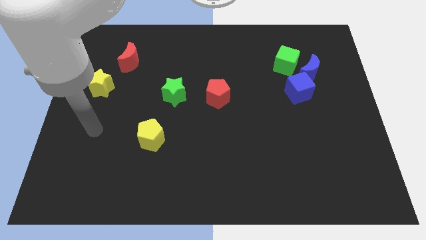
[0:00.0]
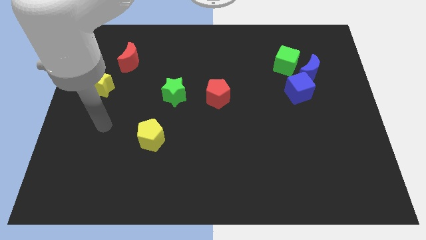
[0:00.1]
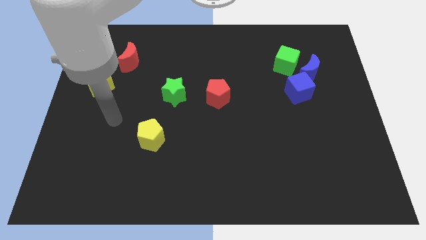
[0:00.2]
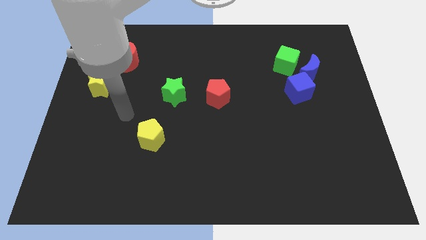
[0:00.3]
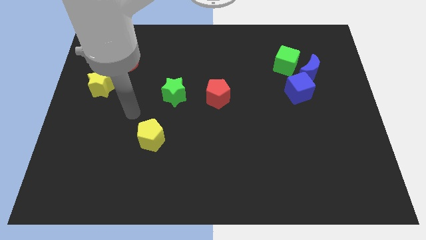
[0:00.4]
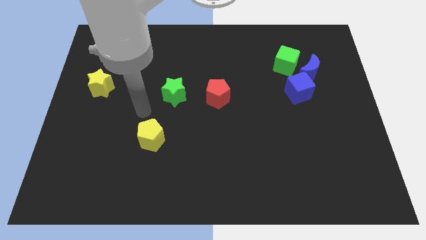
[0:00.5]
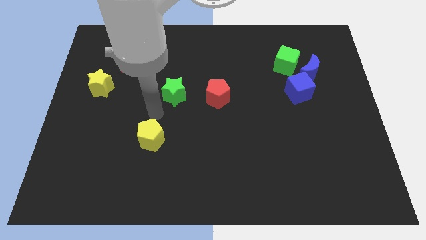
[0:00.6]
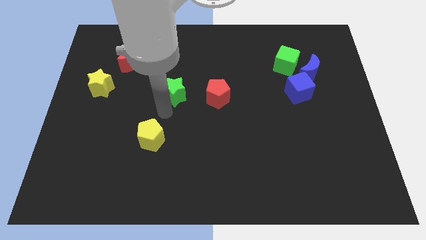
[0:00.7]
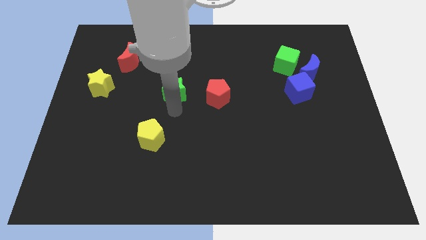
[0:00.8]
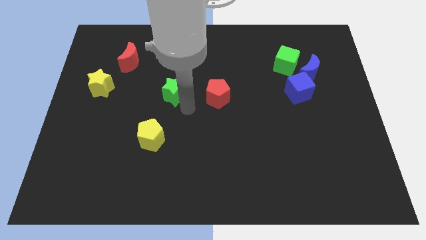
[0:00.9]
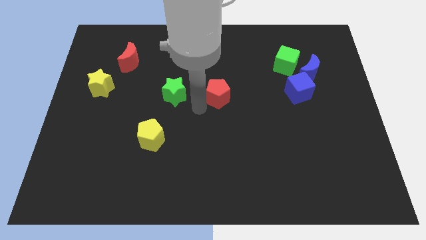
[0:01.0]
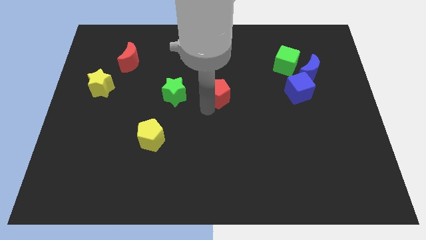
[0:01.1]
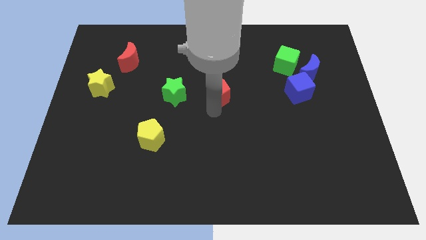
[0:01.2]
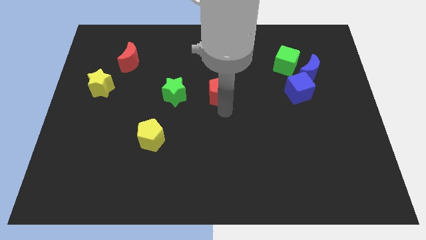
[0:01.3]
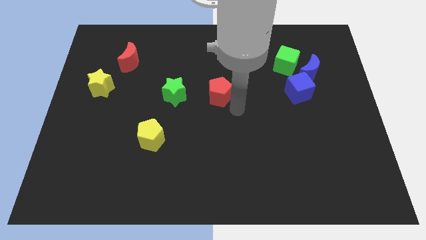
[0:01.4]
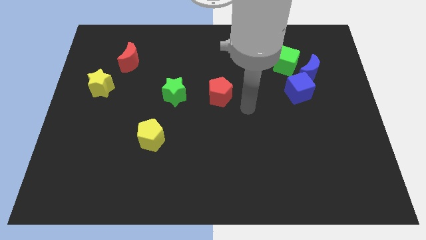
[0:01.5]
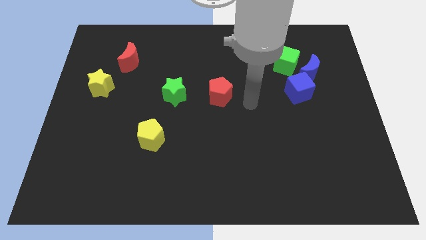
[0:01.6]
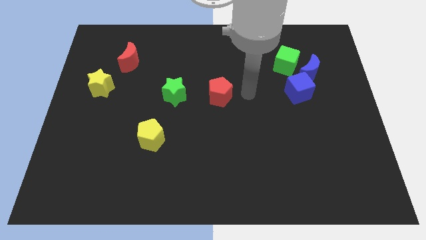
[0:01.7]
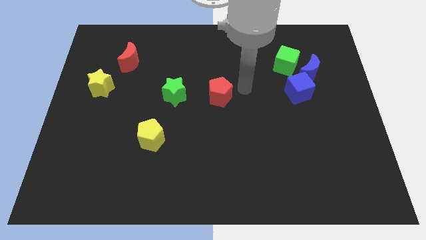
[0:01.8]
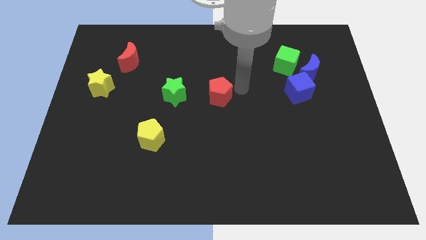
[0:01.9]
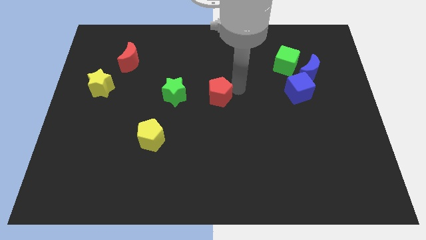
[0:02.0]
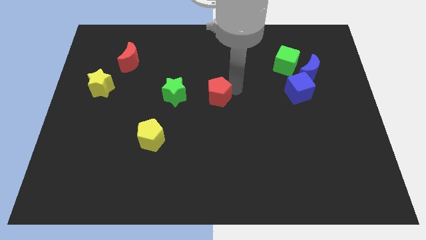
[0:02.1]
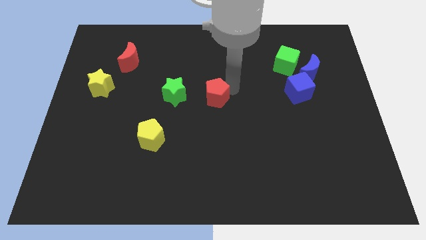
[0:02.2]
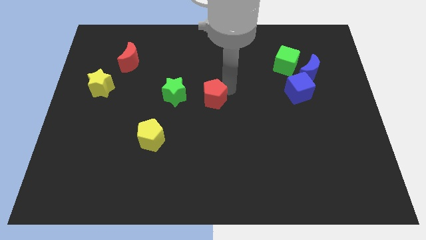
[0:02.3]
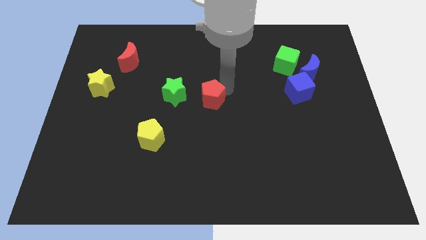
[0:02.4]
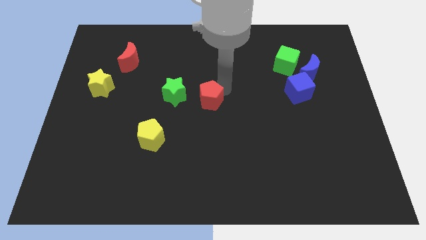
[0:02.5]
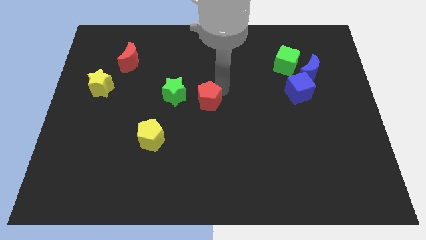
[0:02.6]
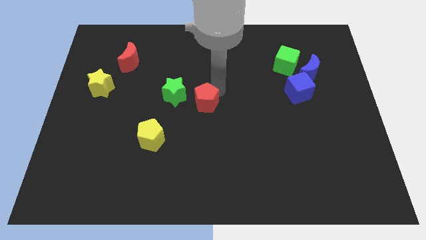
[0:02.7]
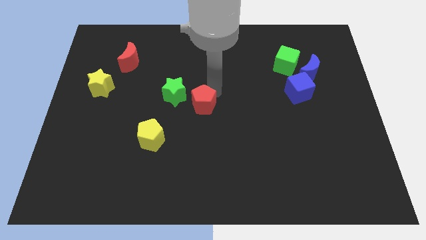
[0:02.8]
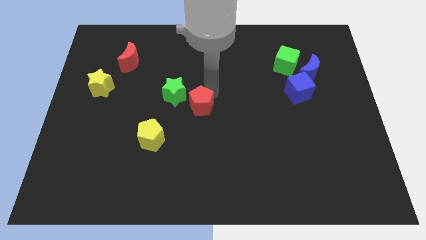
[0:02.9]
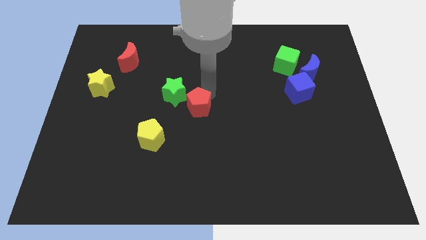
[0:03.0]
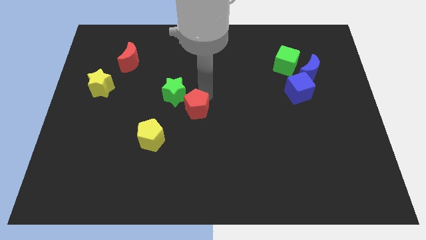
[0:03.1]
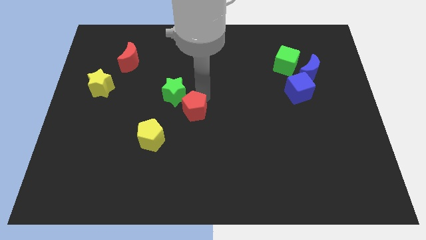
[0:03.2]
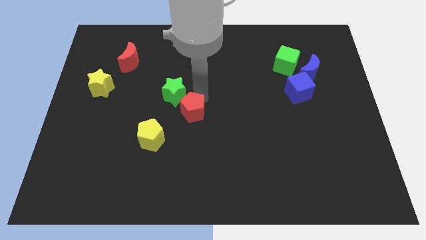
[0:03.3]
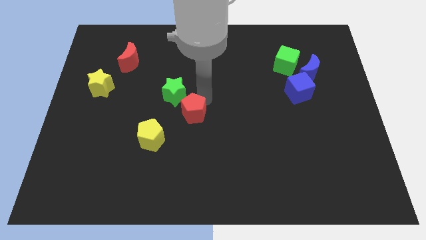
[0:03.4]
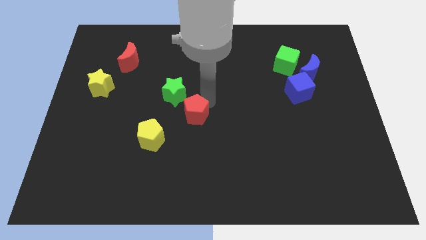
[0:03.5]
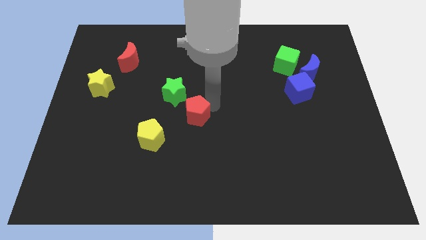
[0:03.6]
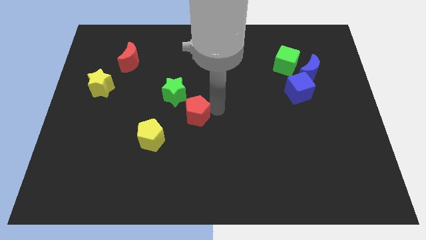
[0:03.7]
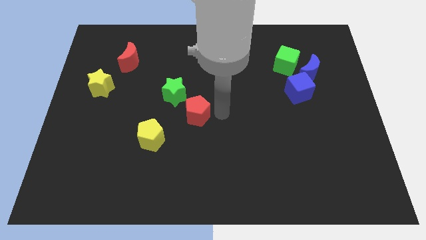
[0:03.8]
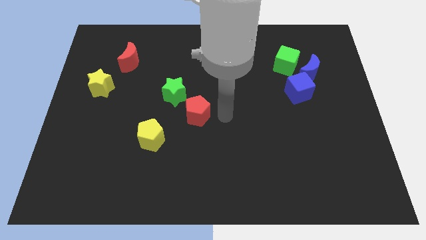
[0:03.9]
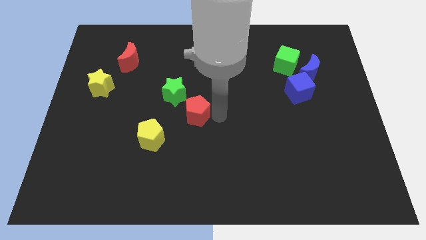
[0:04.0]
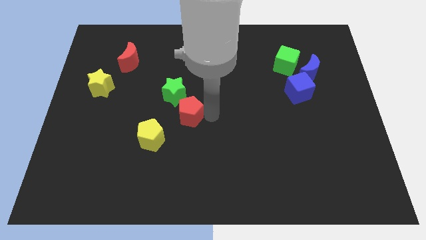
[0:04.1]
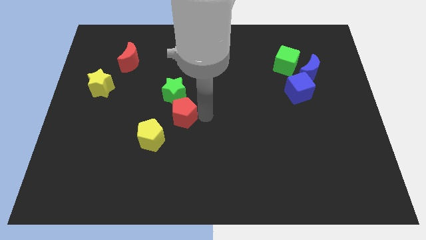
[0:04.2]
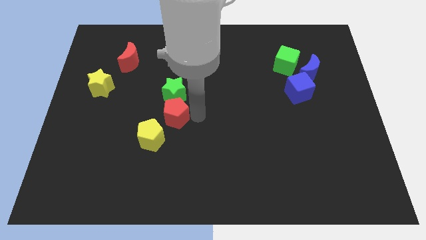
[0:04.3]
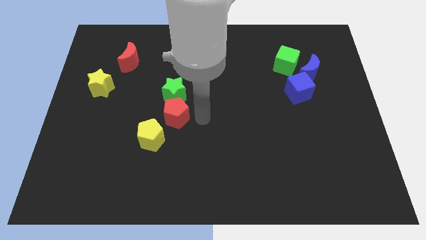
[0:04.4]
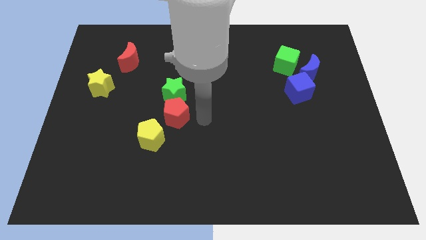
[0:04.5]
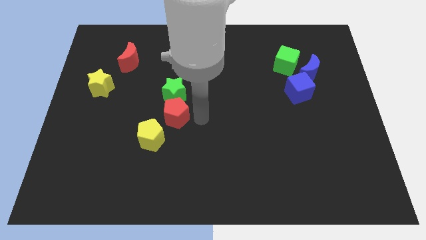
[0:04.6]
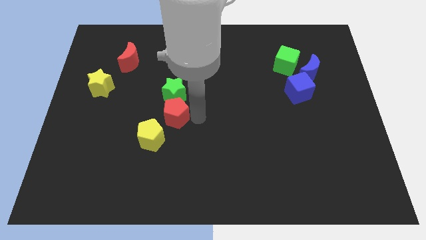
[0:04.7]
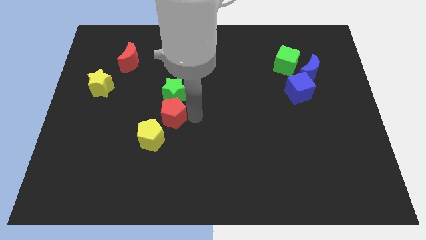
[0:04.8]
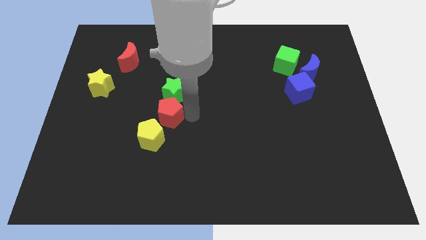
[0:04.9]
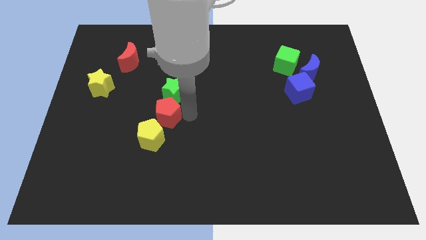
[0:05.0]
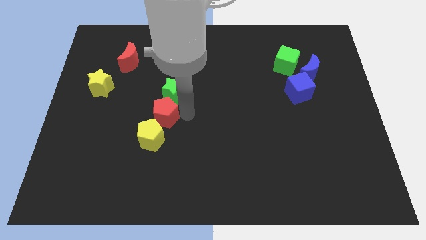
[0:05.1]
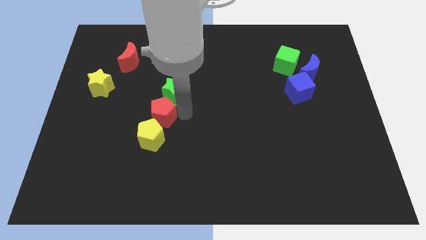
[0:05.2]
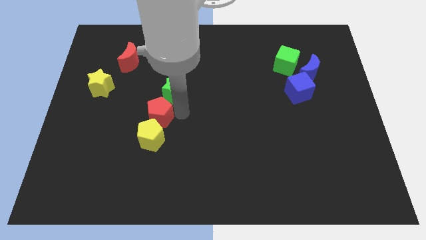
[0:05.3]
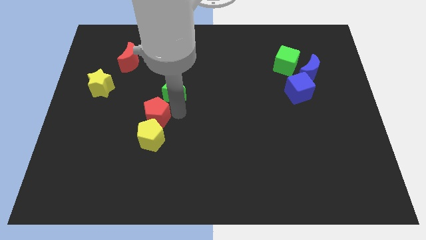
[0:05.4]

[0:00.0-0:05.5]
put the red pentagon to the top left side of the yellow pentagon

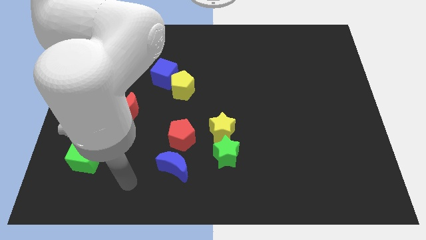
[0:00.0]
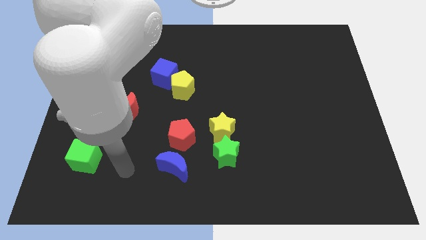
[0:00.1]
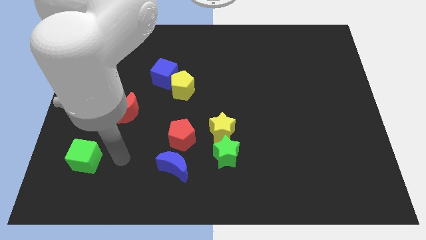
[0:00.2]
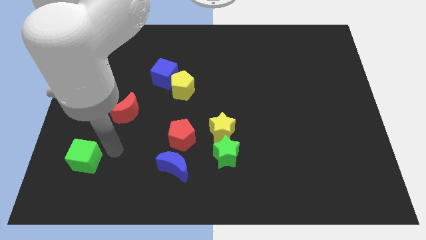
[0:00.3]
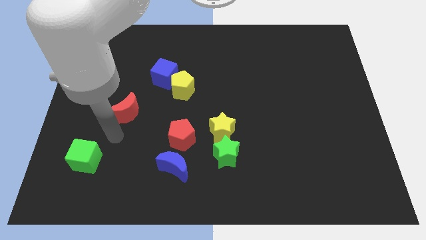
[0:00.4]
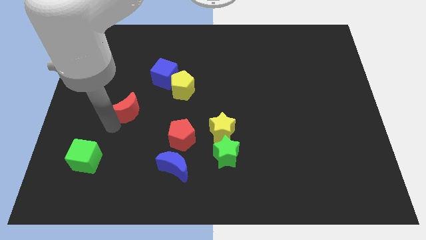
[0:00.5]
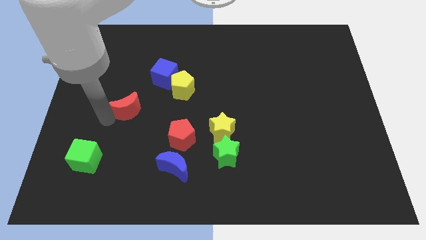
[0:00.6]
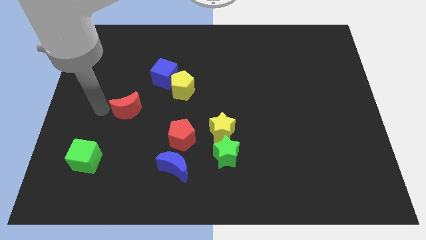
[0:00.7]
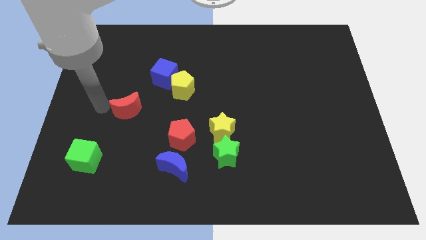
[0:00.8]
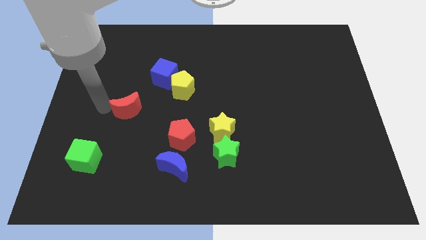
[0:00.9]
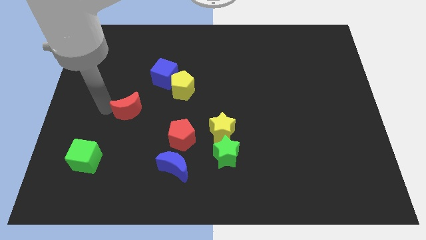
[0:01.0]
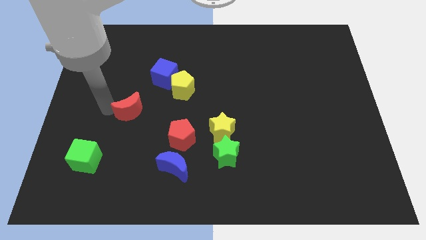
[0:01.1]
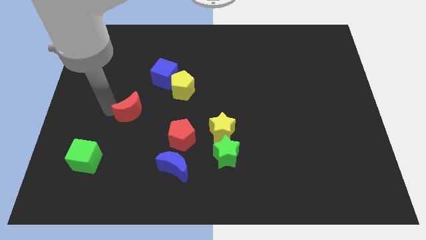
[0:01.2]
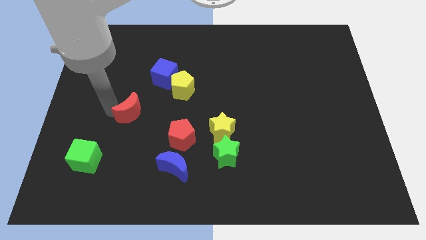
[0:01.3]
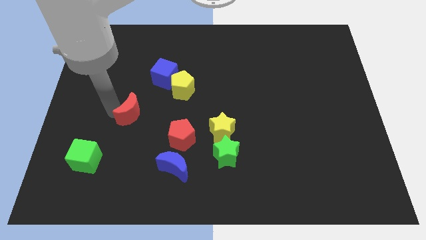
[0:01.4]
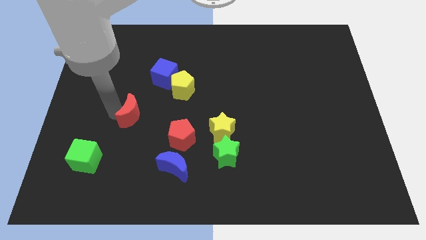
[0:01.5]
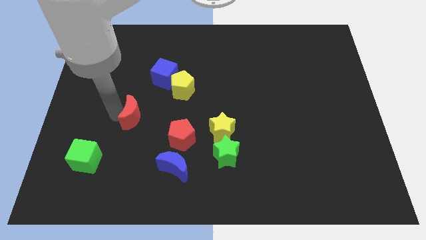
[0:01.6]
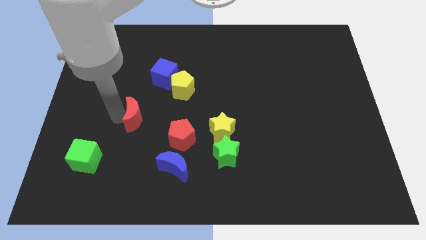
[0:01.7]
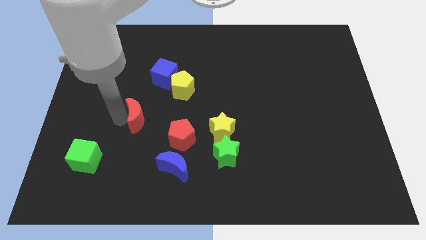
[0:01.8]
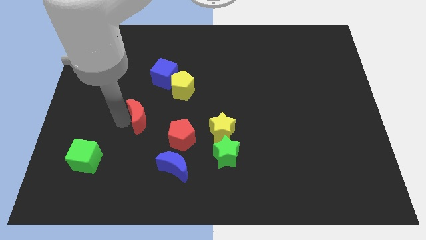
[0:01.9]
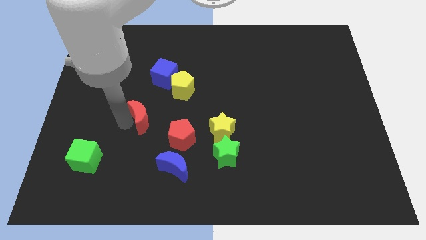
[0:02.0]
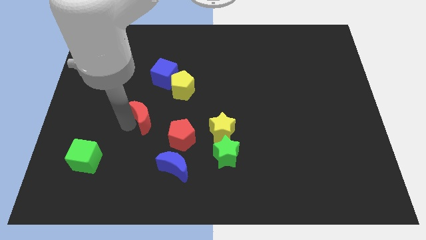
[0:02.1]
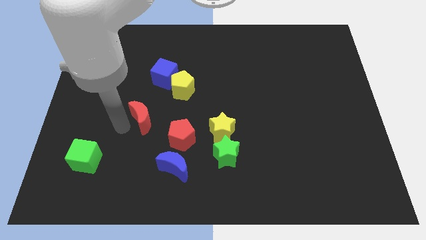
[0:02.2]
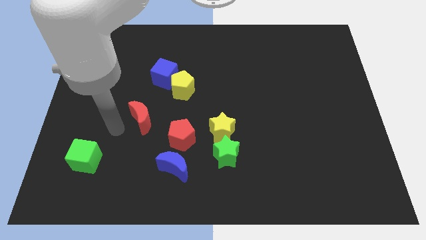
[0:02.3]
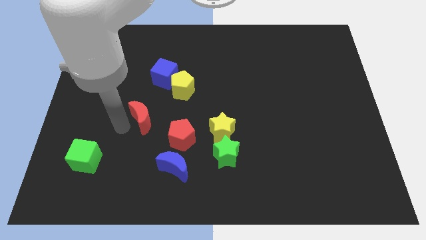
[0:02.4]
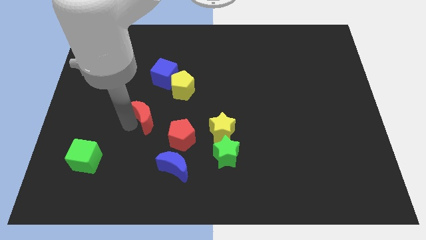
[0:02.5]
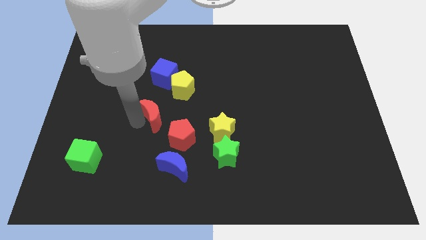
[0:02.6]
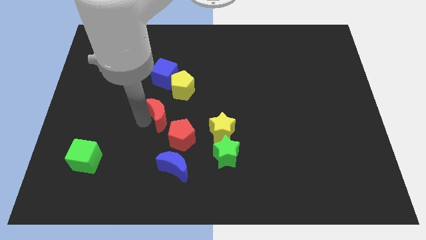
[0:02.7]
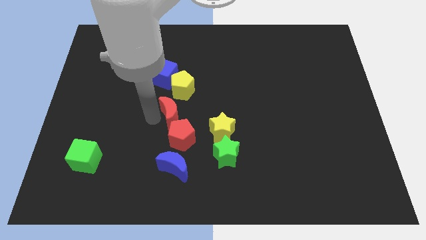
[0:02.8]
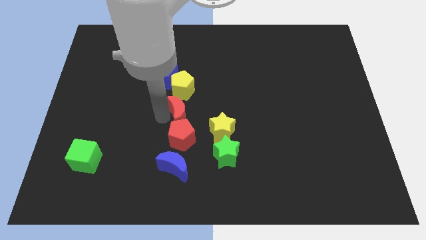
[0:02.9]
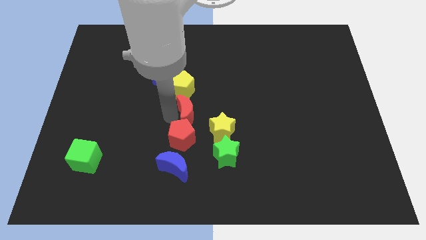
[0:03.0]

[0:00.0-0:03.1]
push the red moon to the bottom right of the yellow pentagon
